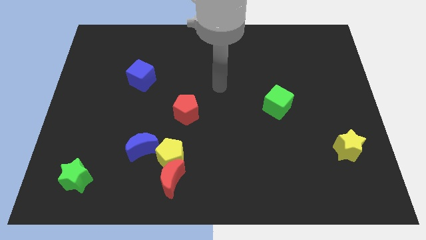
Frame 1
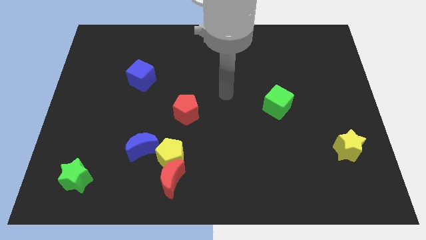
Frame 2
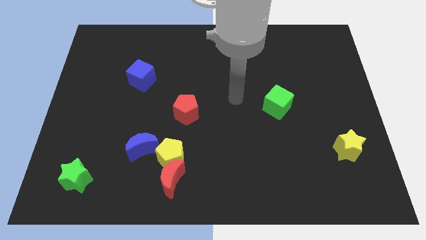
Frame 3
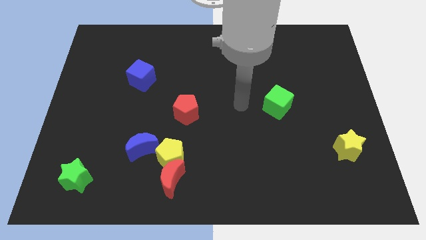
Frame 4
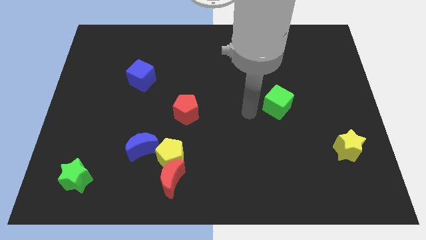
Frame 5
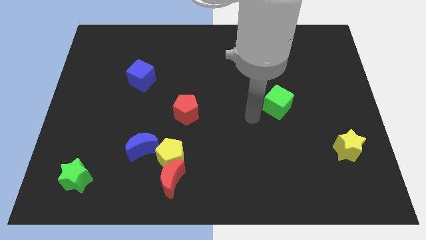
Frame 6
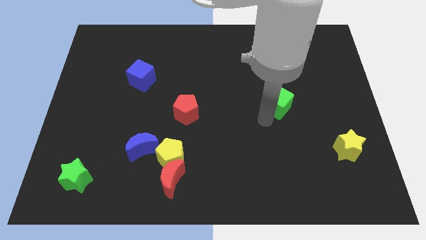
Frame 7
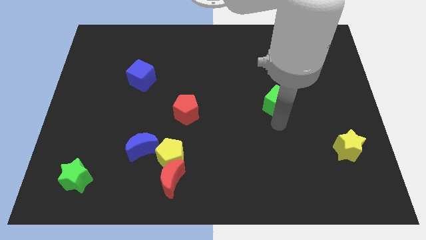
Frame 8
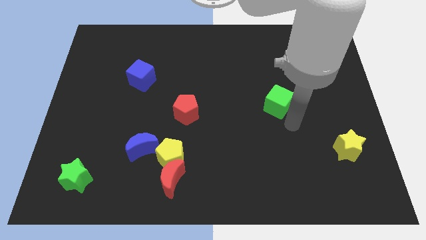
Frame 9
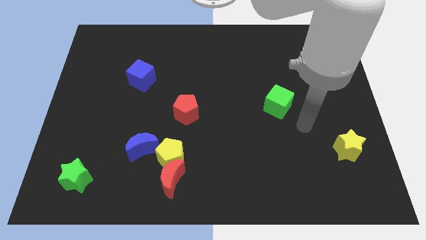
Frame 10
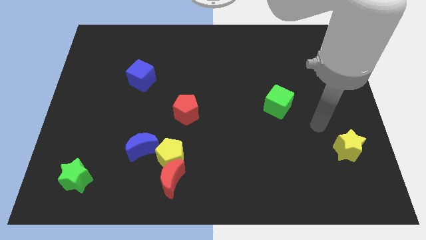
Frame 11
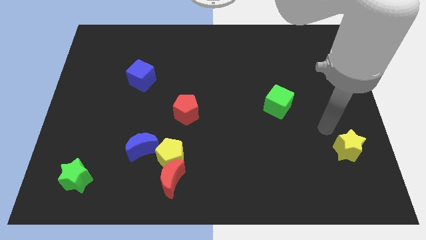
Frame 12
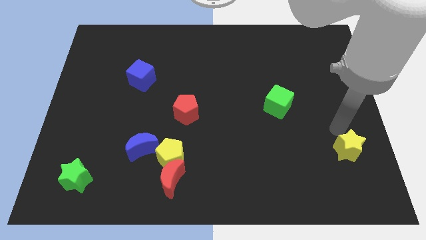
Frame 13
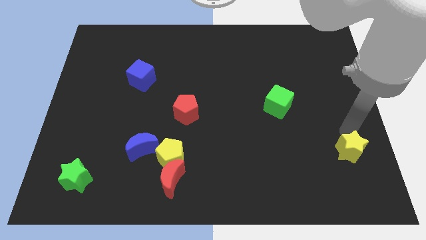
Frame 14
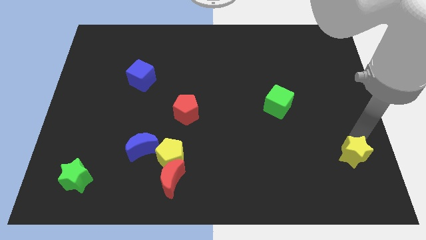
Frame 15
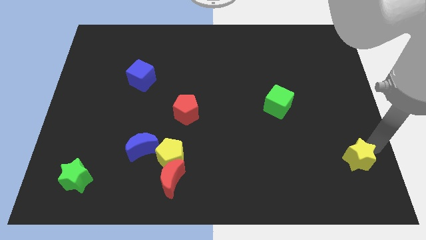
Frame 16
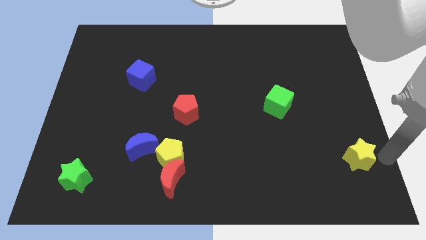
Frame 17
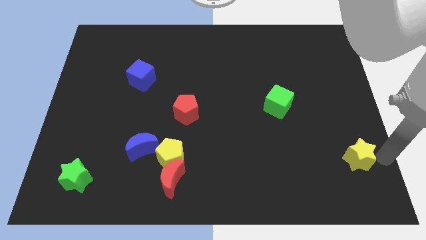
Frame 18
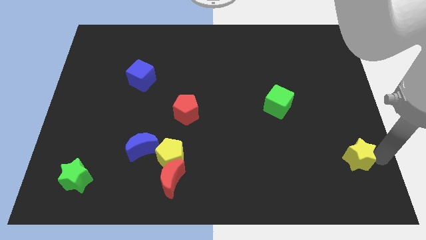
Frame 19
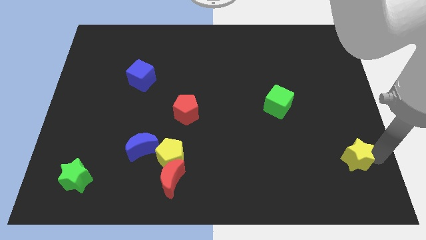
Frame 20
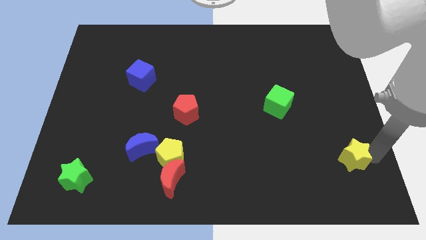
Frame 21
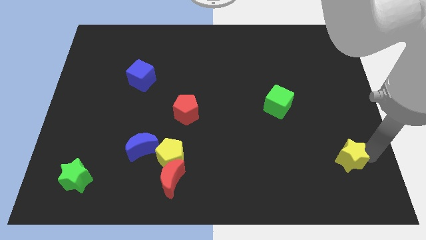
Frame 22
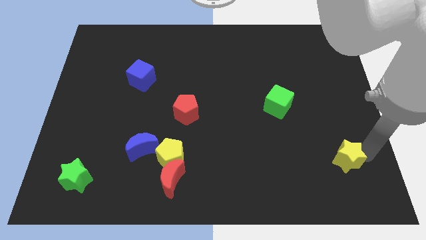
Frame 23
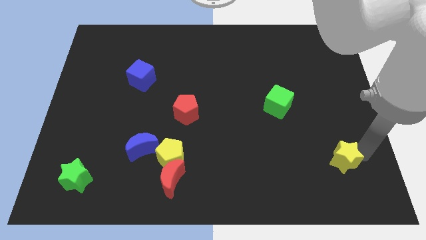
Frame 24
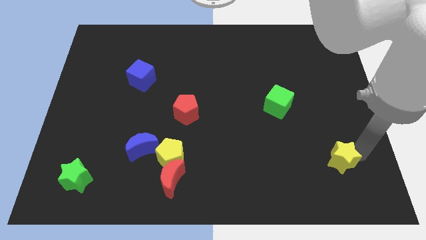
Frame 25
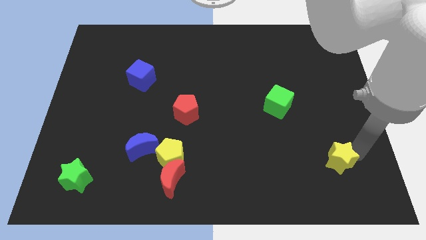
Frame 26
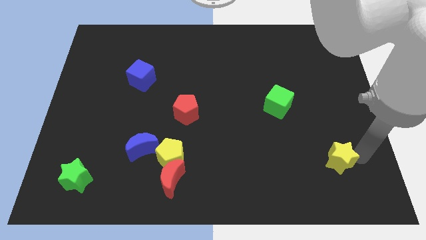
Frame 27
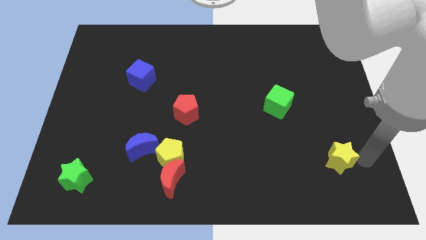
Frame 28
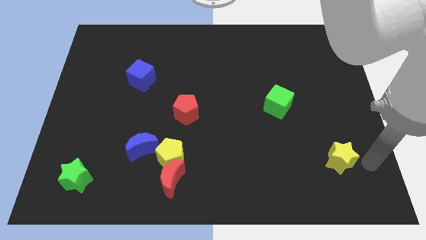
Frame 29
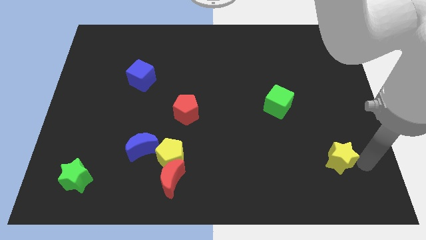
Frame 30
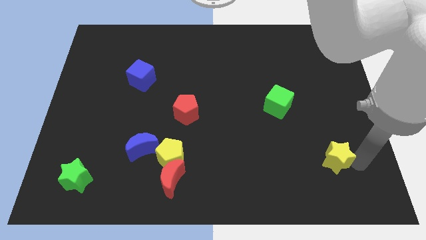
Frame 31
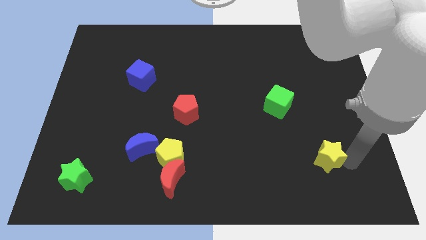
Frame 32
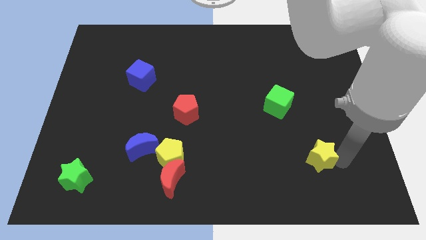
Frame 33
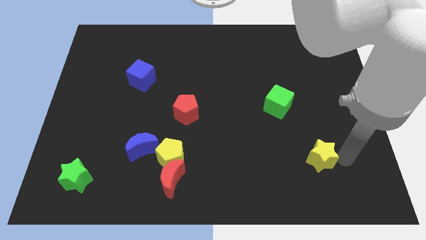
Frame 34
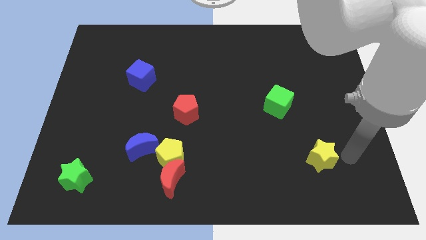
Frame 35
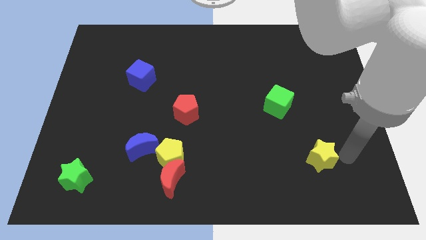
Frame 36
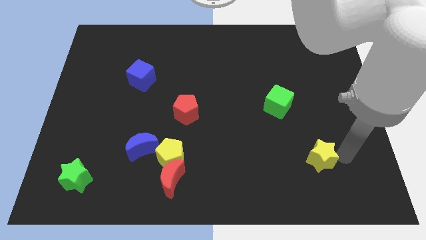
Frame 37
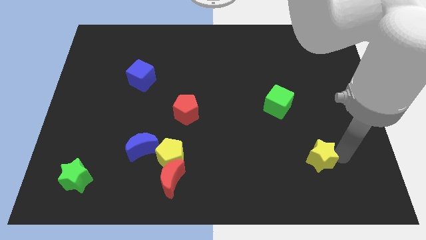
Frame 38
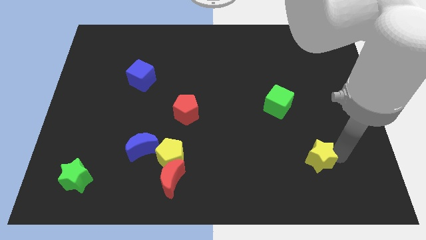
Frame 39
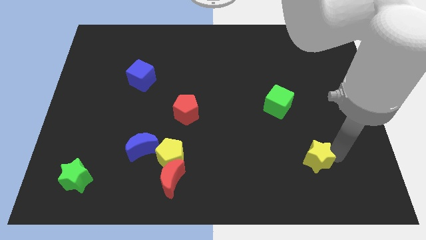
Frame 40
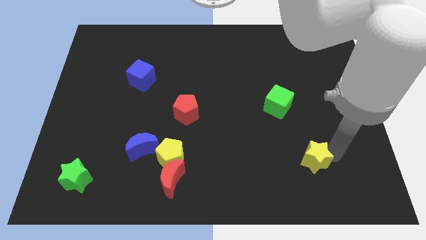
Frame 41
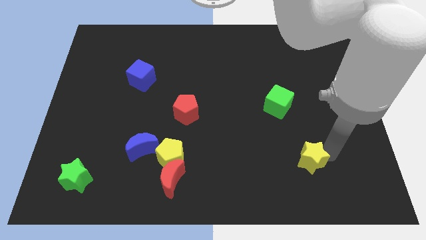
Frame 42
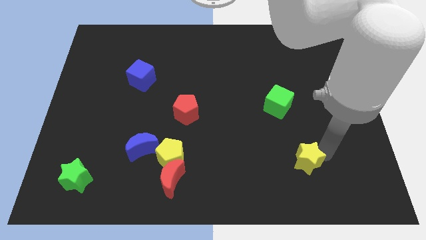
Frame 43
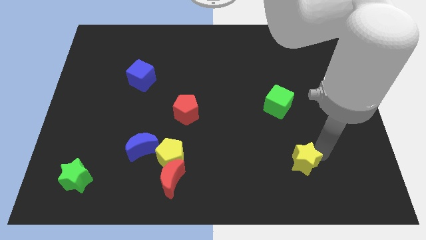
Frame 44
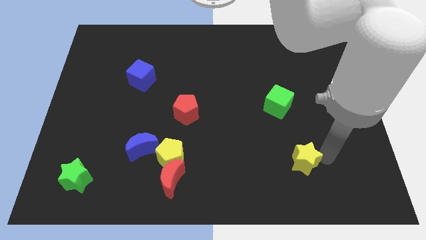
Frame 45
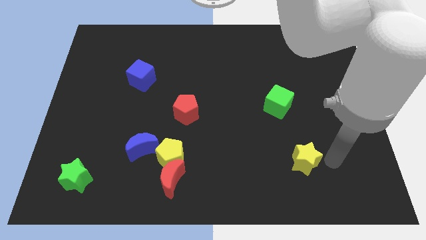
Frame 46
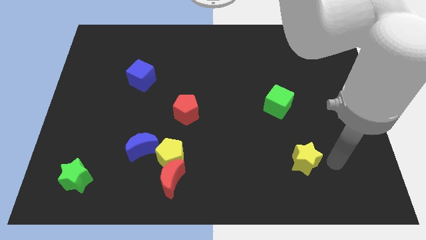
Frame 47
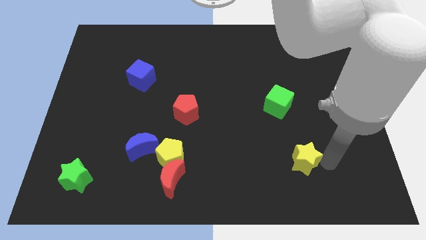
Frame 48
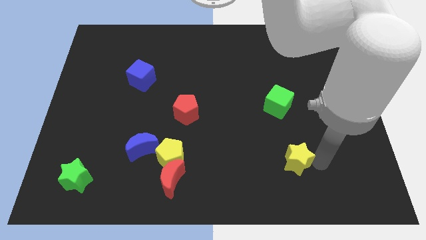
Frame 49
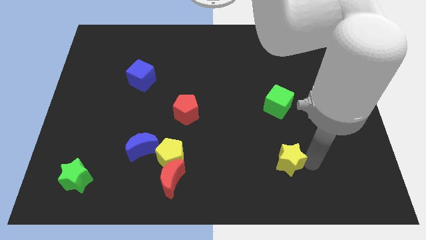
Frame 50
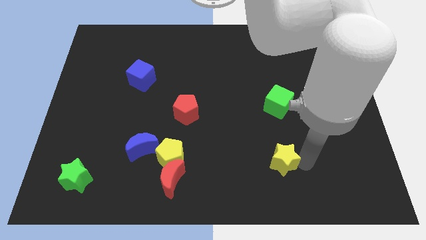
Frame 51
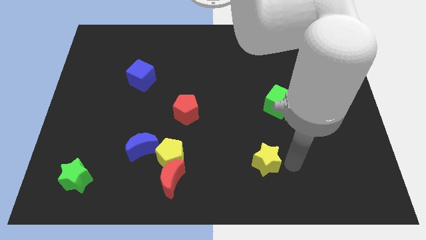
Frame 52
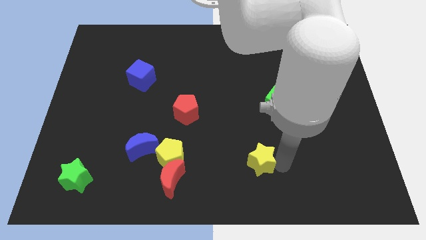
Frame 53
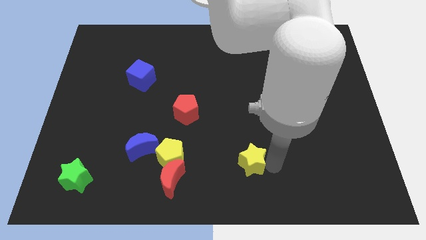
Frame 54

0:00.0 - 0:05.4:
slide the yellow star to the left

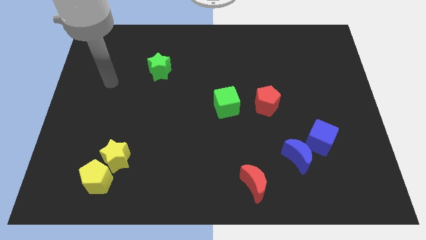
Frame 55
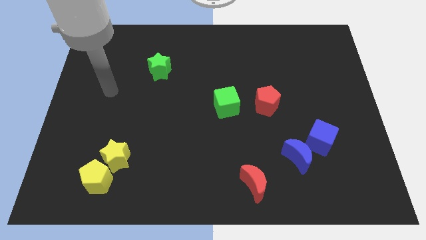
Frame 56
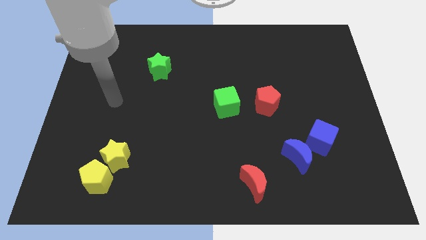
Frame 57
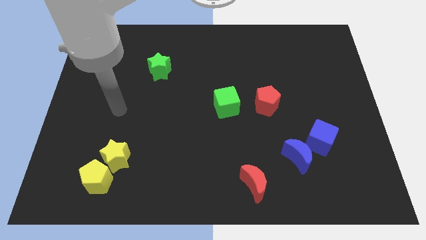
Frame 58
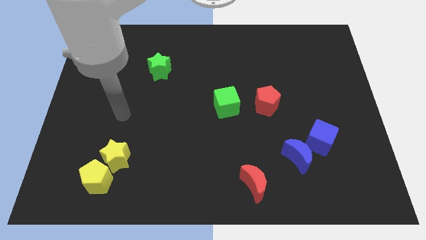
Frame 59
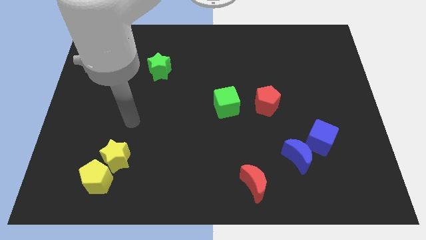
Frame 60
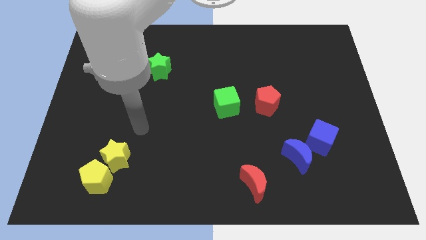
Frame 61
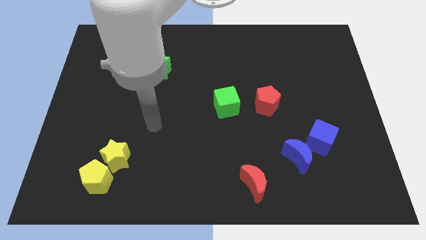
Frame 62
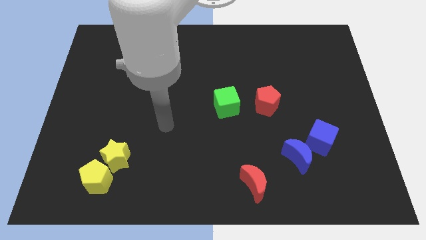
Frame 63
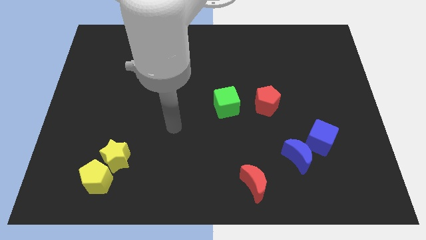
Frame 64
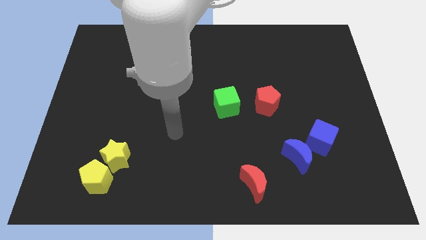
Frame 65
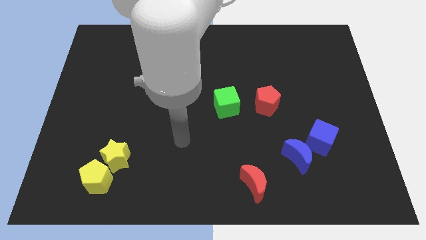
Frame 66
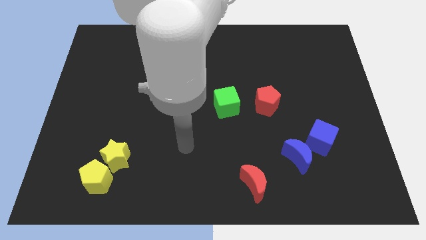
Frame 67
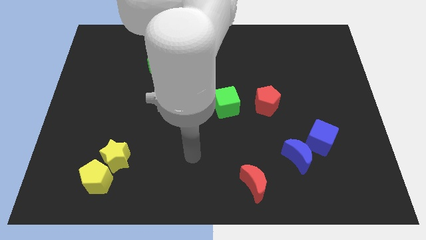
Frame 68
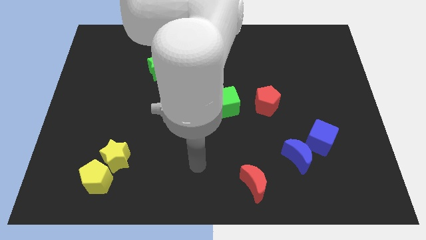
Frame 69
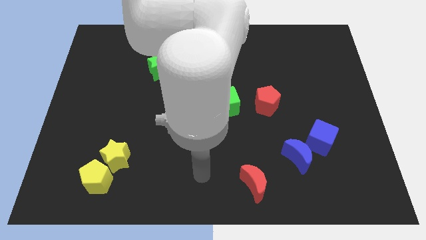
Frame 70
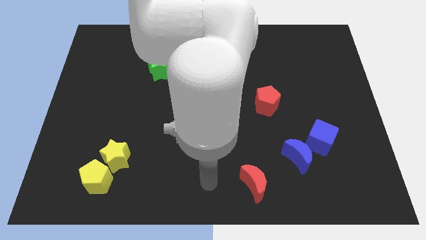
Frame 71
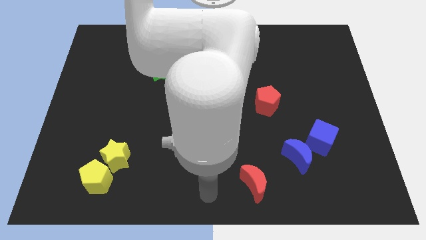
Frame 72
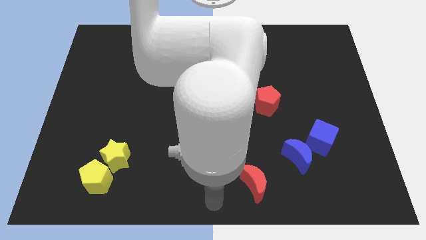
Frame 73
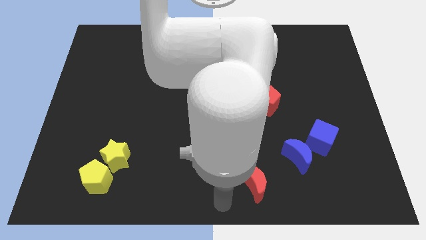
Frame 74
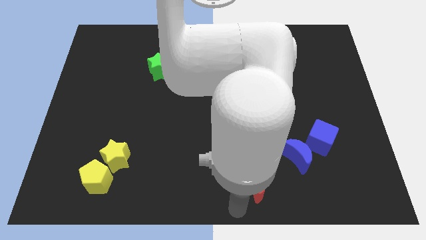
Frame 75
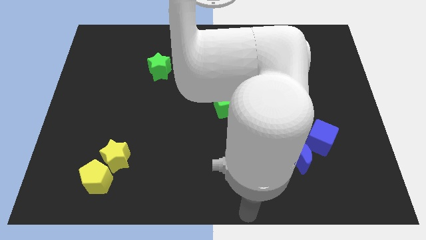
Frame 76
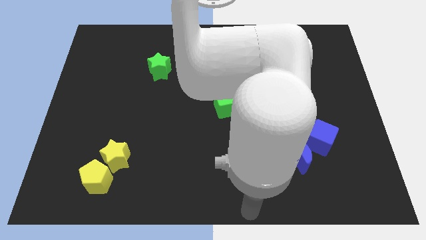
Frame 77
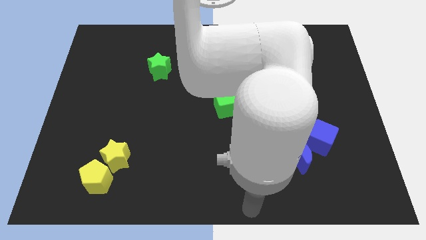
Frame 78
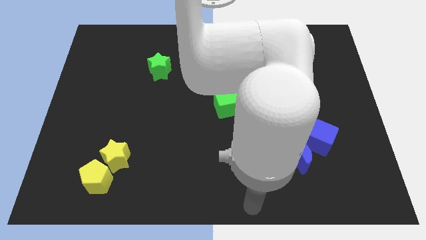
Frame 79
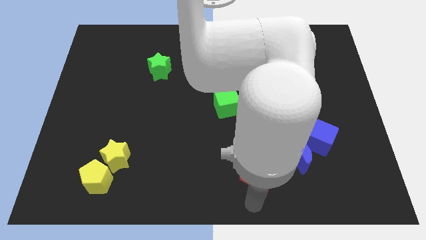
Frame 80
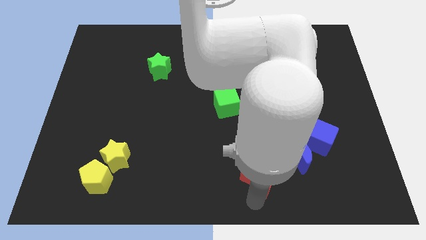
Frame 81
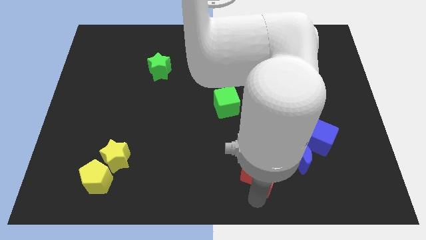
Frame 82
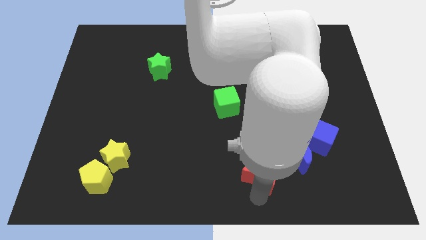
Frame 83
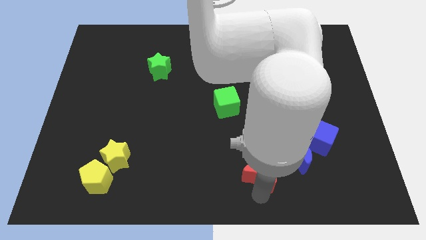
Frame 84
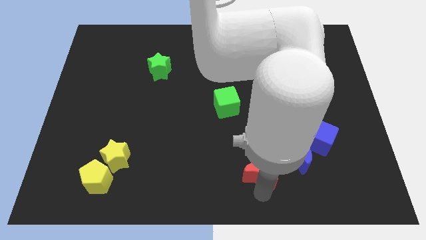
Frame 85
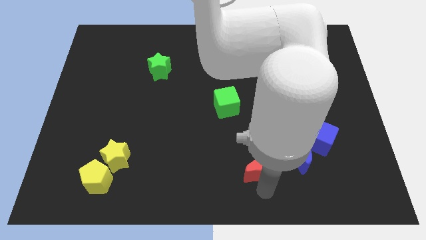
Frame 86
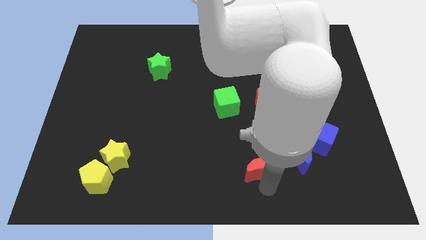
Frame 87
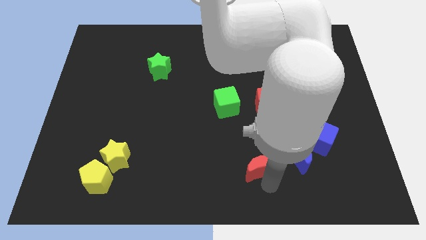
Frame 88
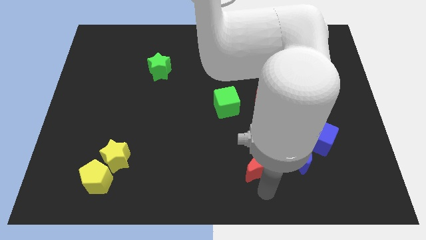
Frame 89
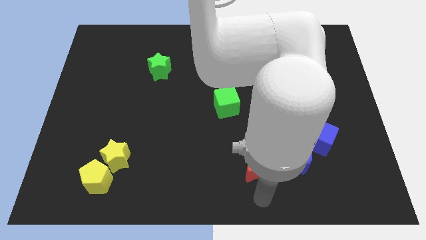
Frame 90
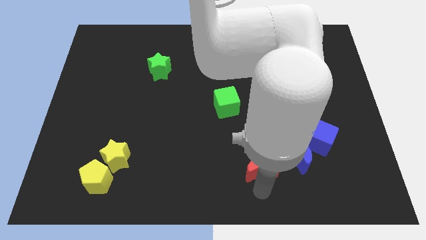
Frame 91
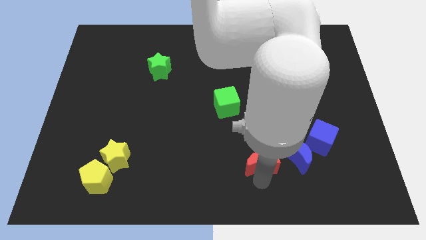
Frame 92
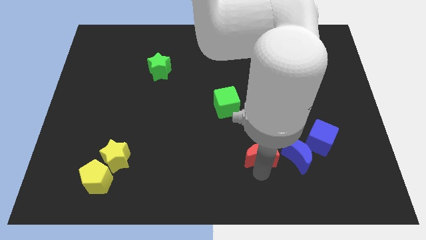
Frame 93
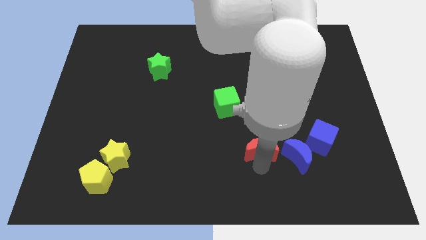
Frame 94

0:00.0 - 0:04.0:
slide the red moon a little bit up
